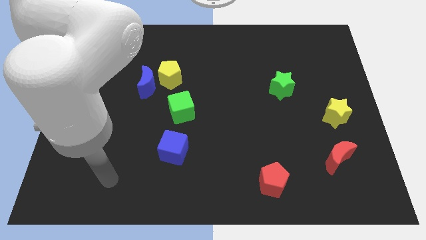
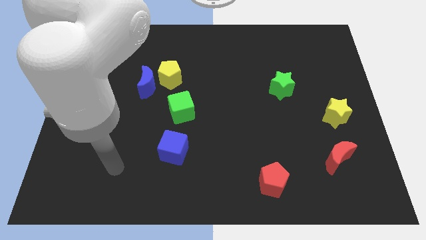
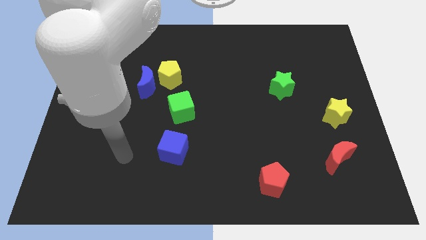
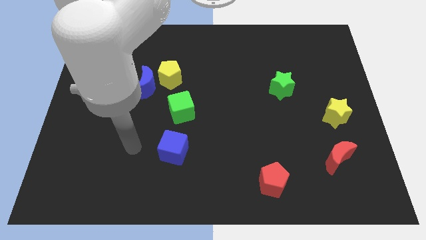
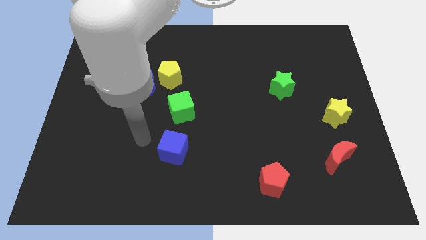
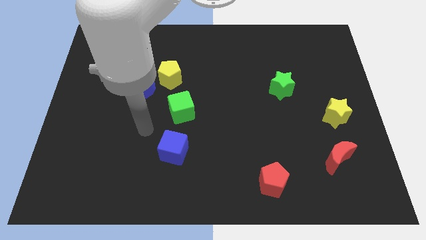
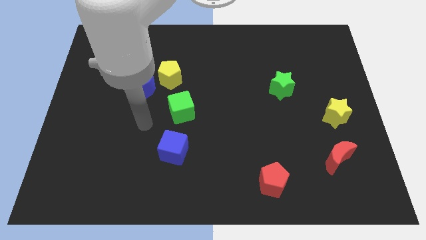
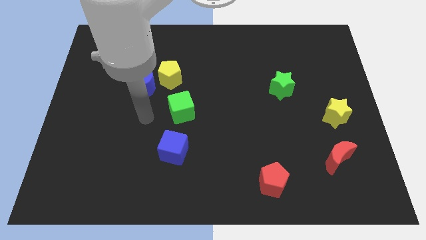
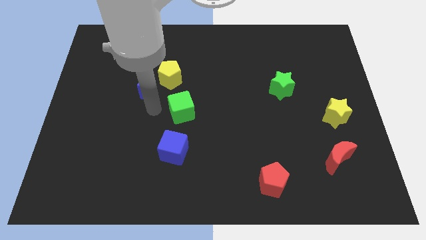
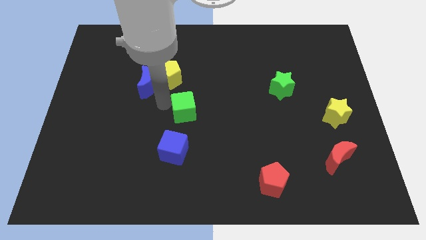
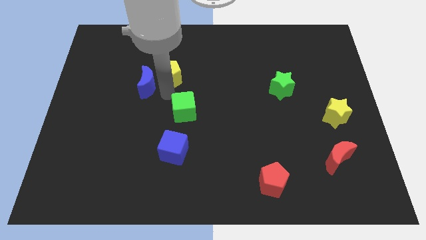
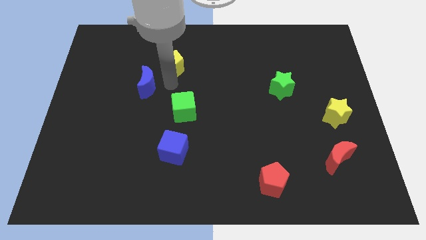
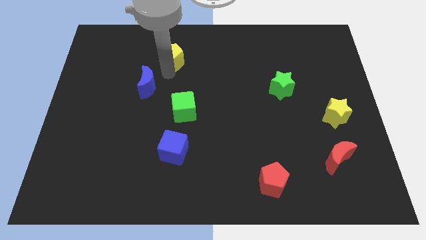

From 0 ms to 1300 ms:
pull the blue moon apart from the yellow pentagon

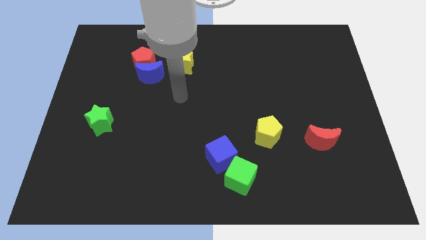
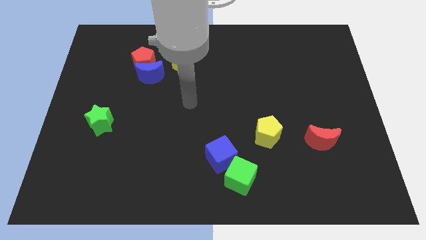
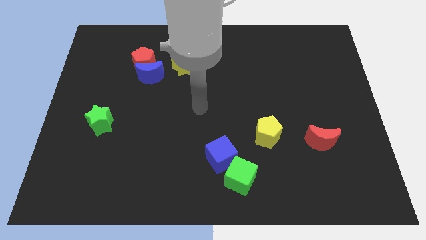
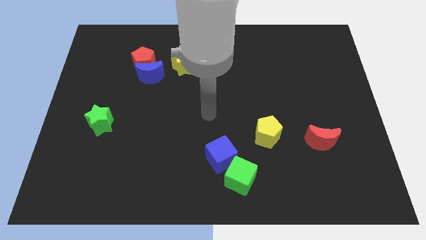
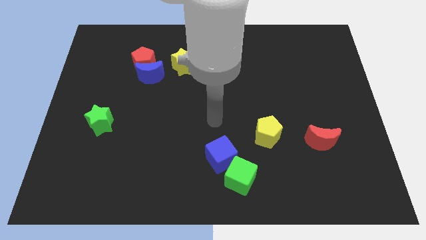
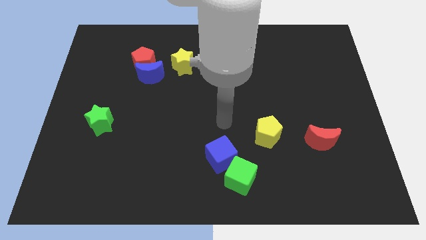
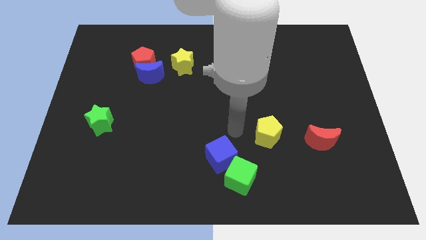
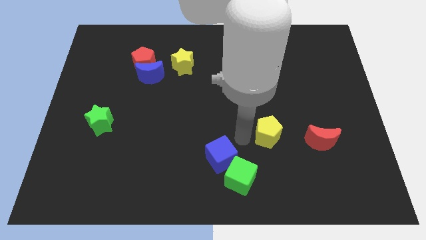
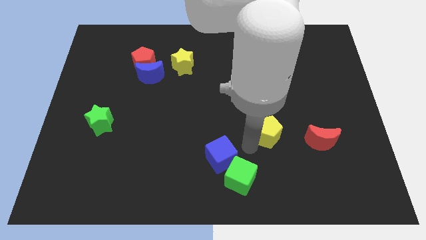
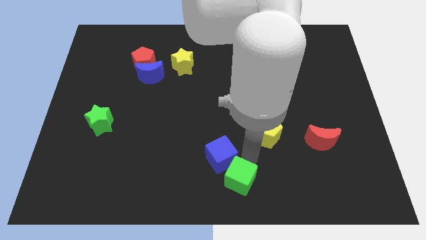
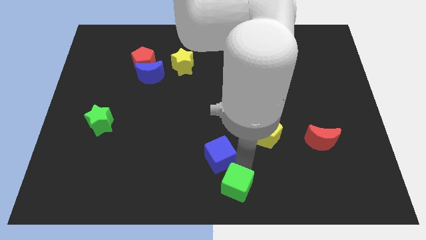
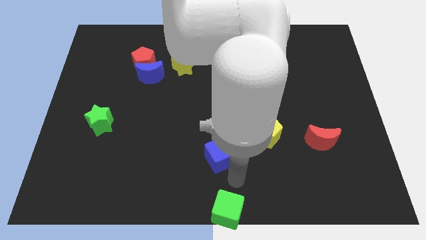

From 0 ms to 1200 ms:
pull the blue cube apart from the green cube

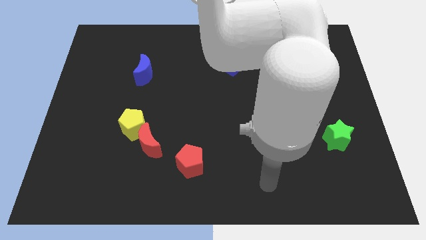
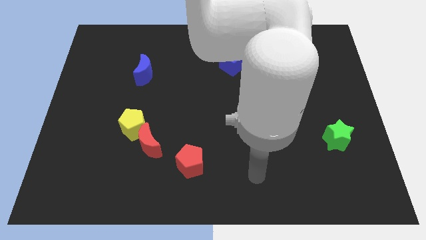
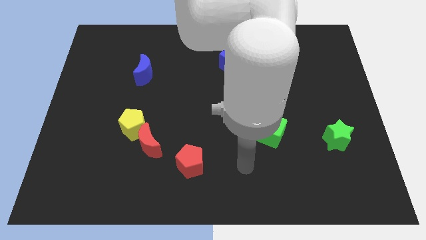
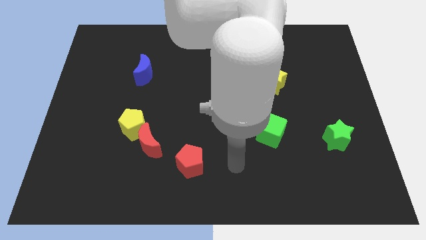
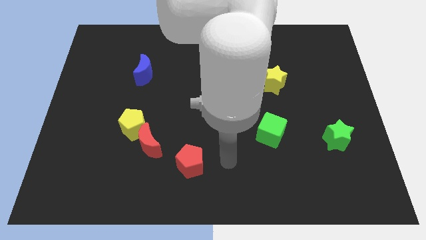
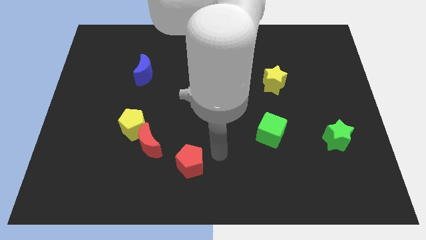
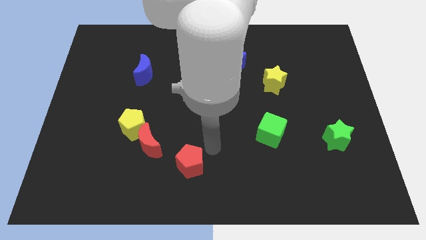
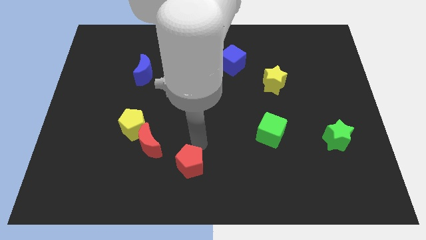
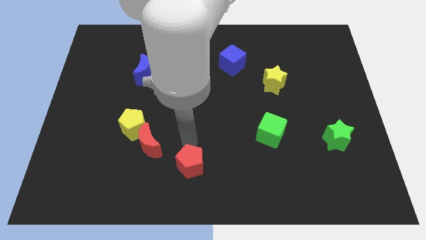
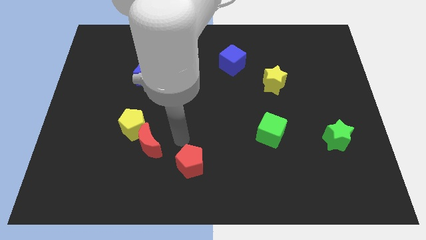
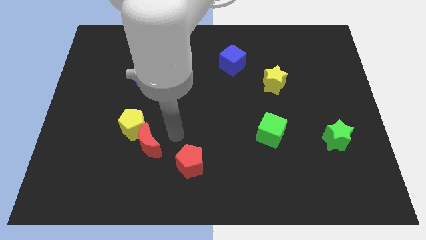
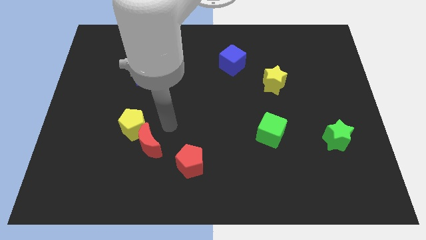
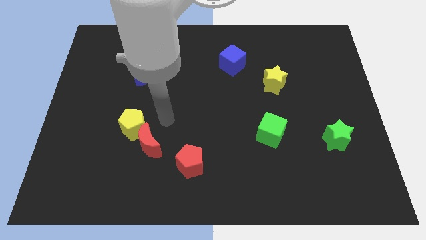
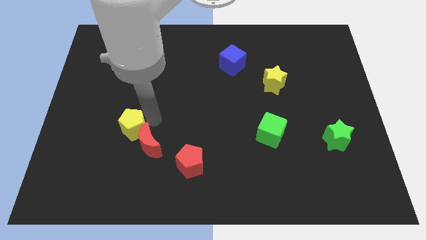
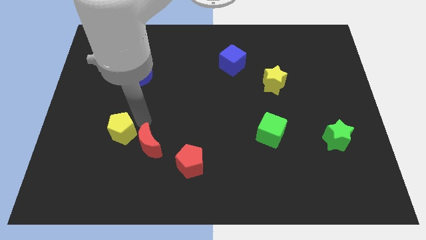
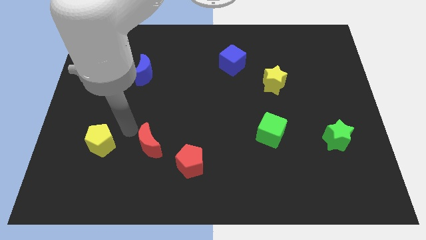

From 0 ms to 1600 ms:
pull the red moon apart from the yellow pentagon

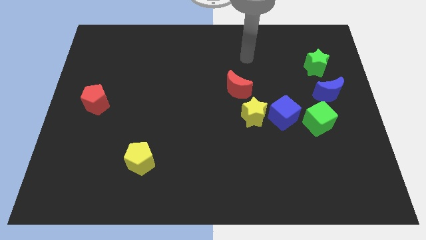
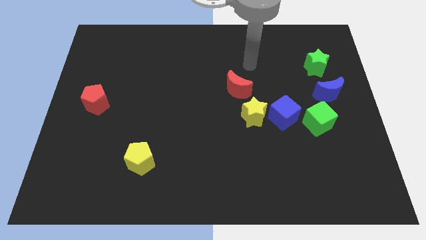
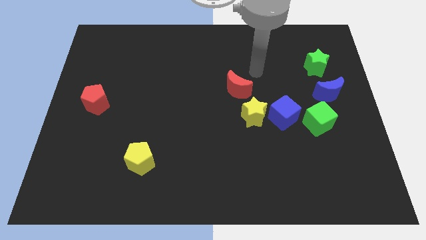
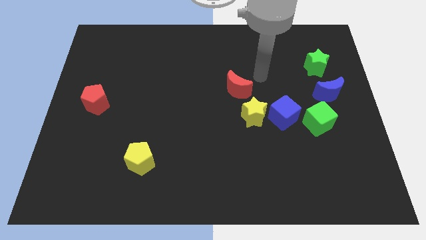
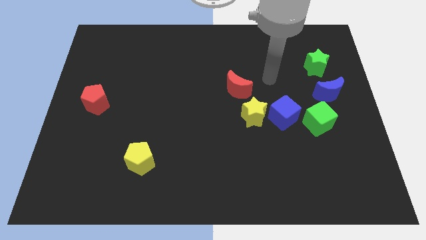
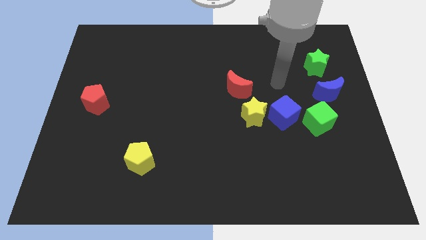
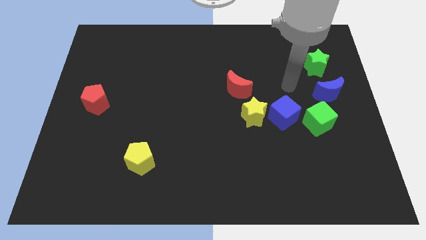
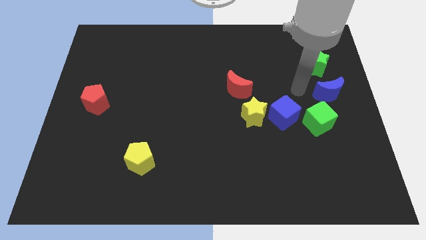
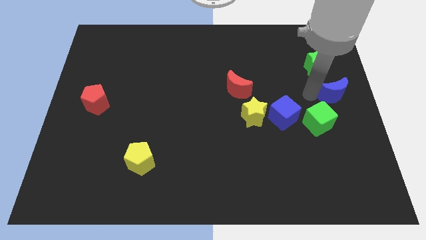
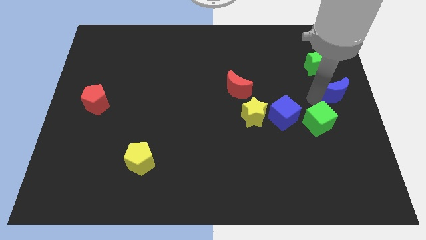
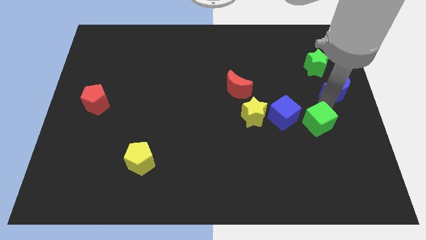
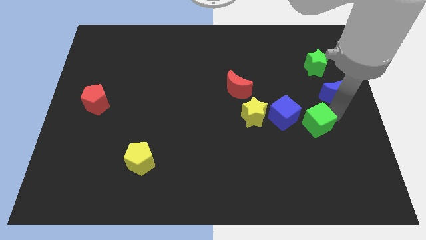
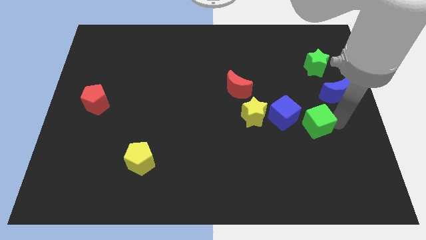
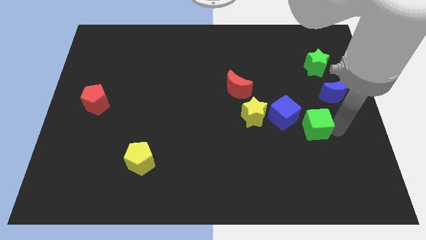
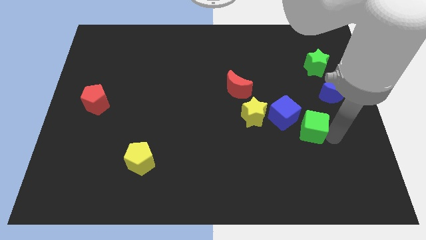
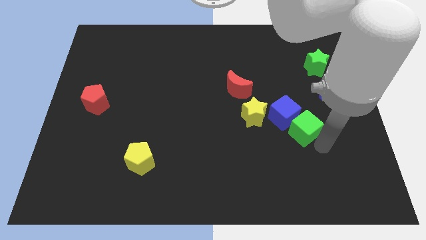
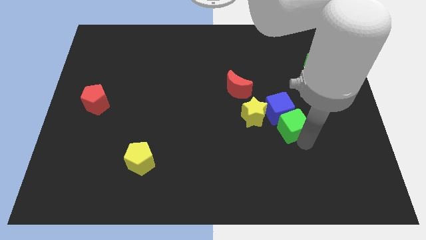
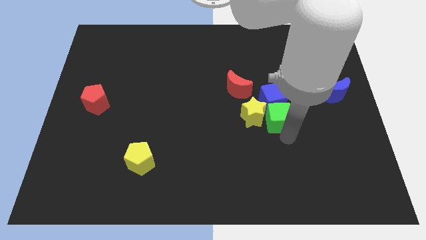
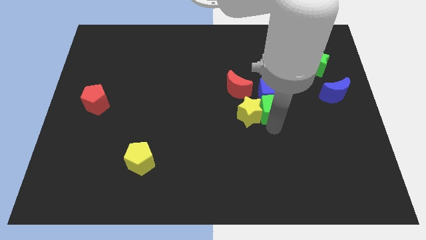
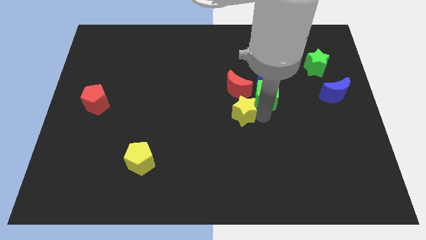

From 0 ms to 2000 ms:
move the blue cube away from the yellow star and green cube

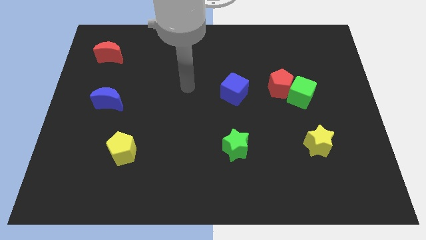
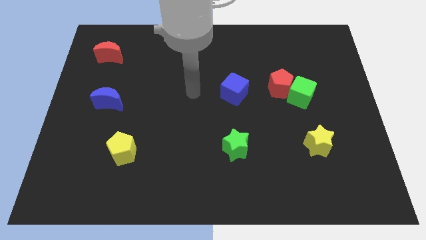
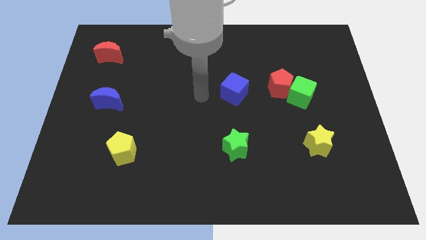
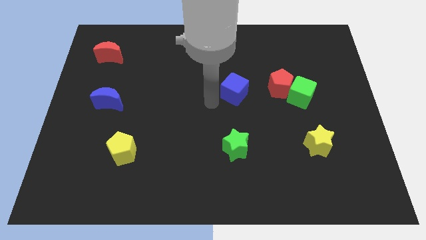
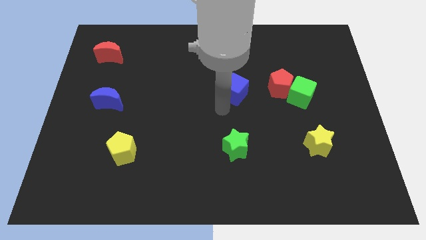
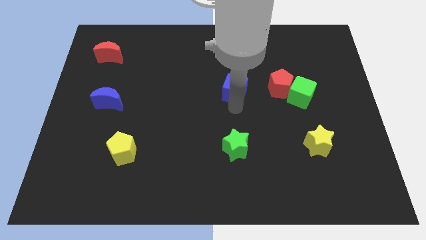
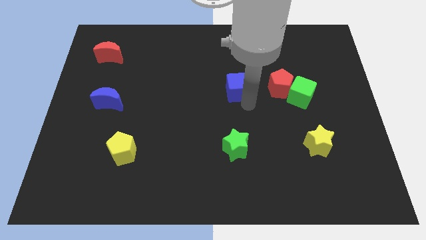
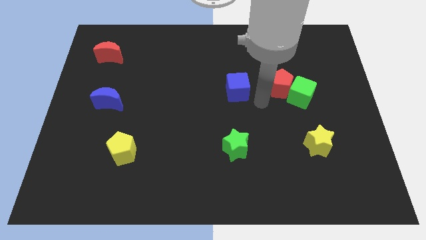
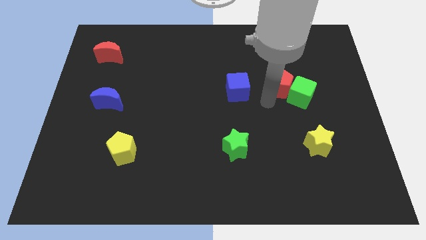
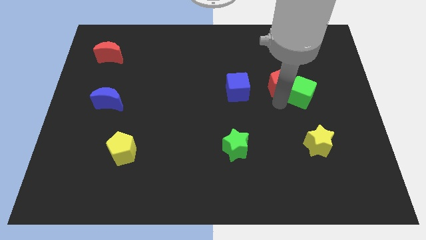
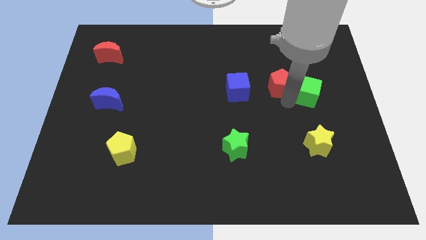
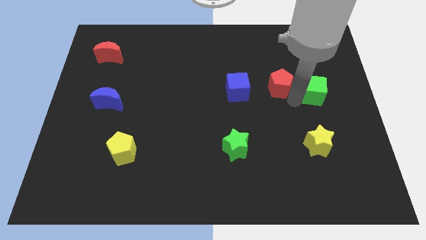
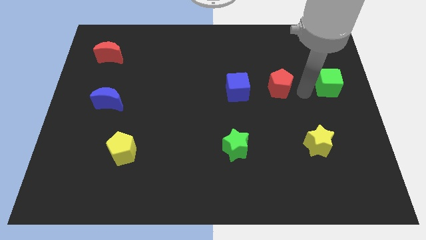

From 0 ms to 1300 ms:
separate the red pentagon from the green cube

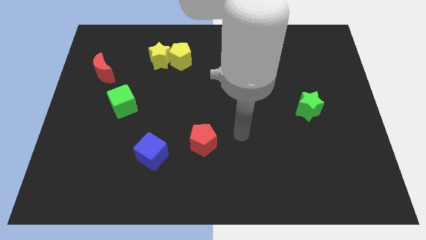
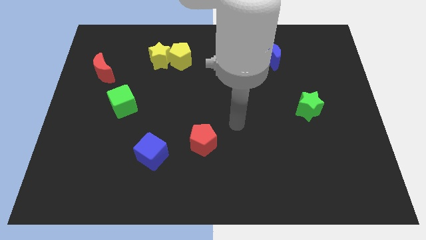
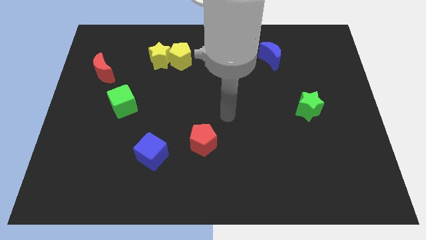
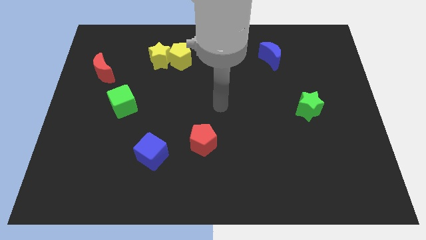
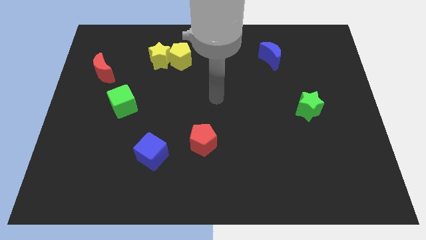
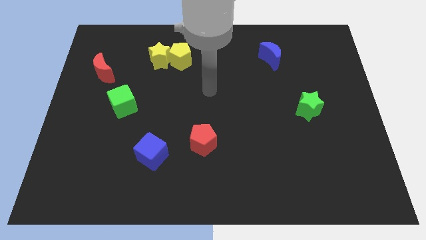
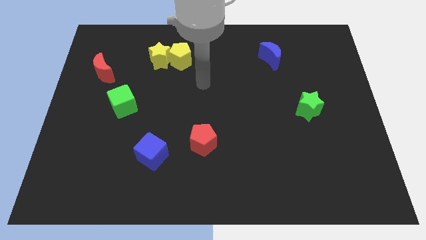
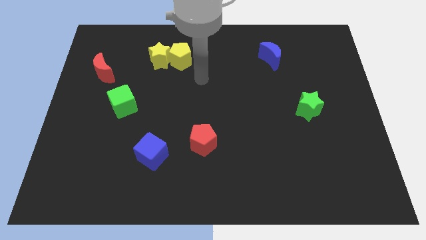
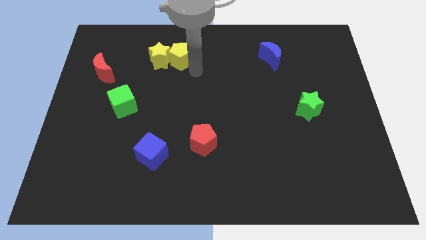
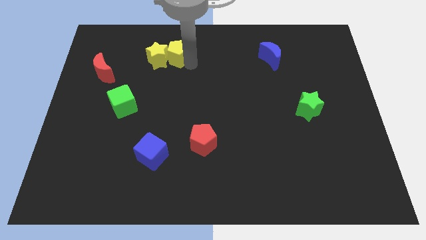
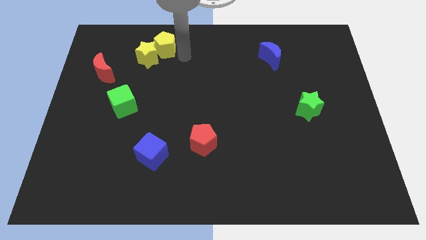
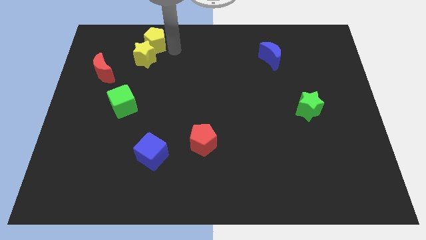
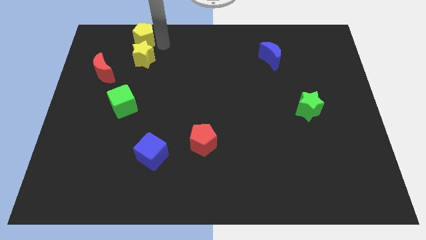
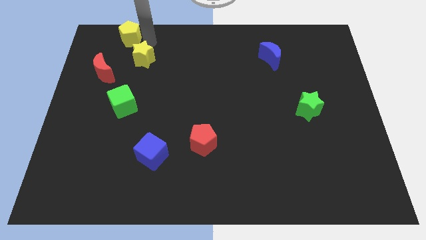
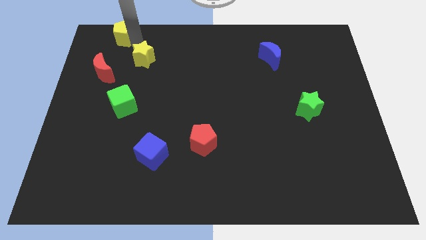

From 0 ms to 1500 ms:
separate the yellow star from the yellow pentagon

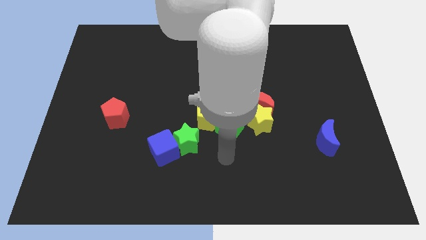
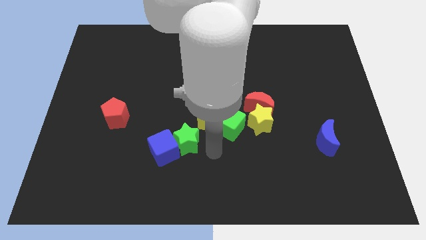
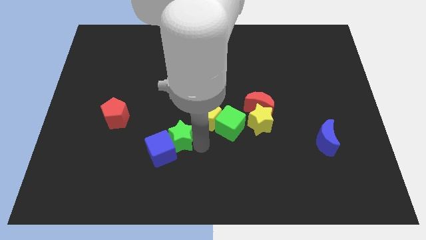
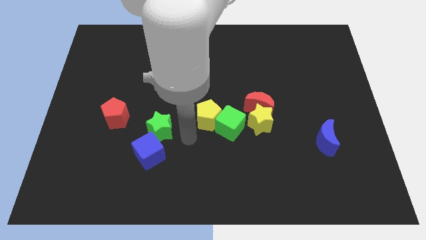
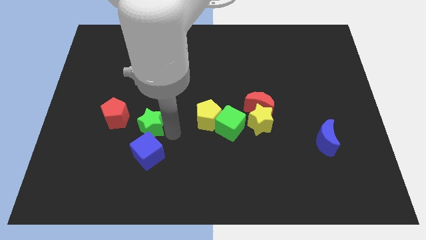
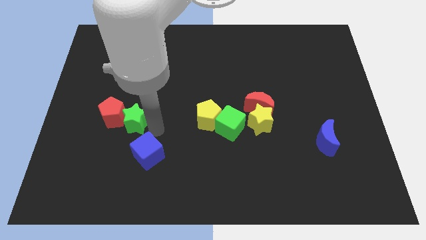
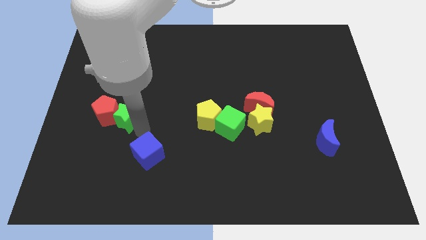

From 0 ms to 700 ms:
pull the blue cube apart from the green star
